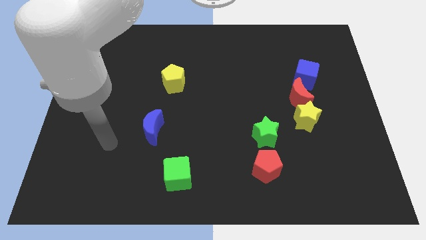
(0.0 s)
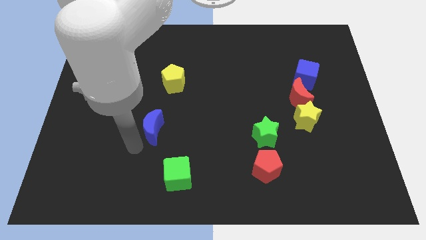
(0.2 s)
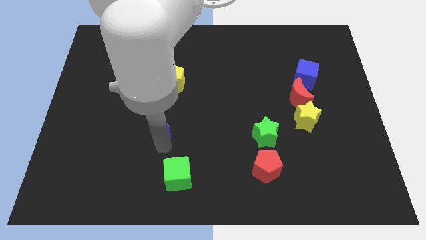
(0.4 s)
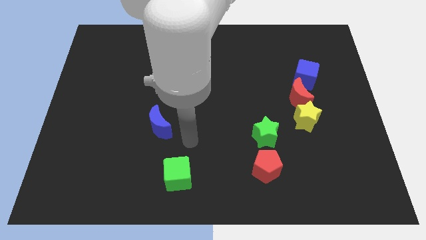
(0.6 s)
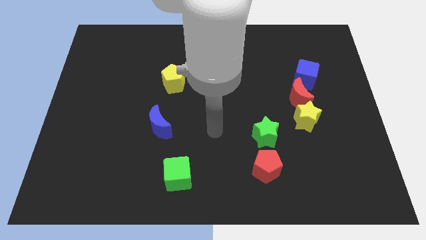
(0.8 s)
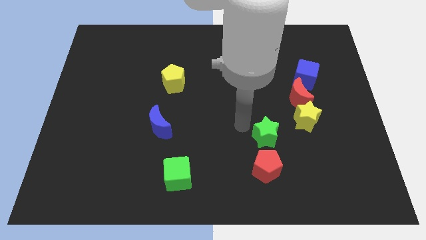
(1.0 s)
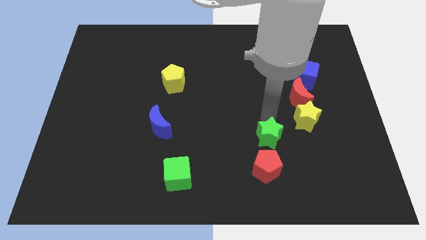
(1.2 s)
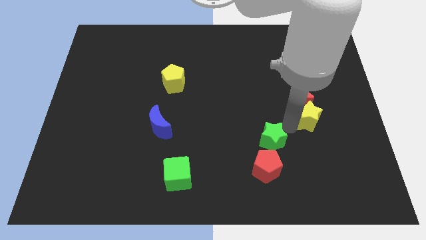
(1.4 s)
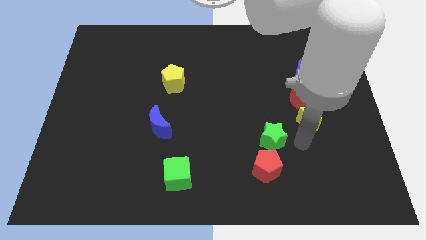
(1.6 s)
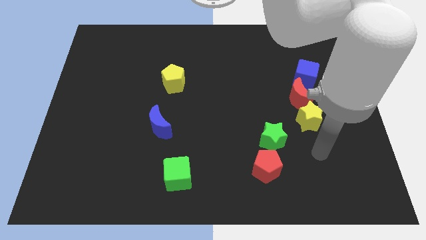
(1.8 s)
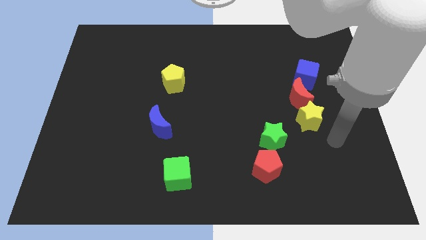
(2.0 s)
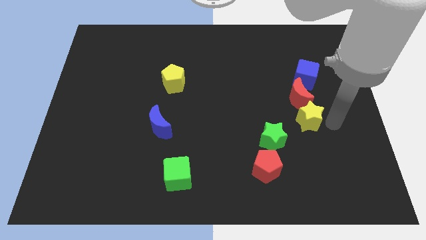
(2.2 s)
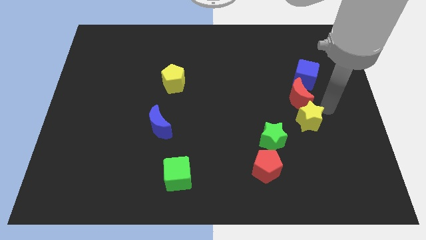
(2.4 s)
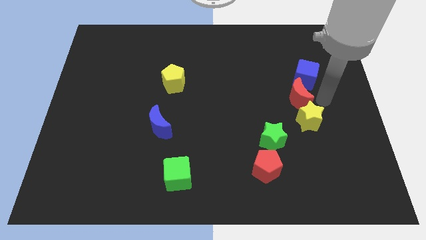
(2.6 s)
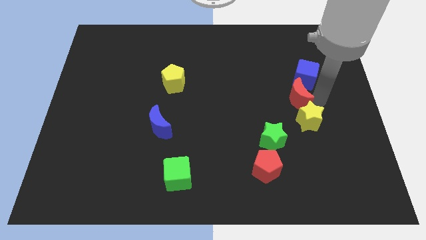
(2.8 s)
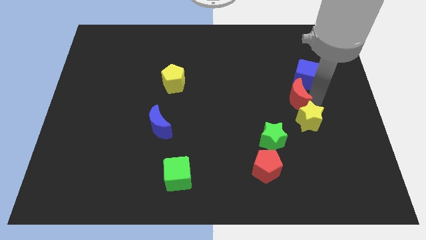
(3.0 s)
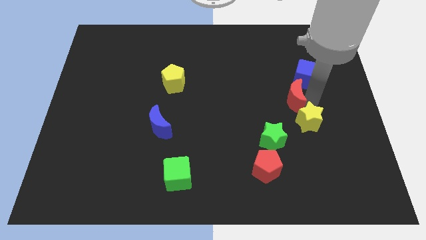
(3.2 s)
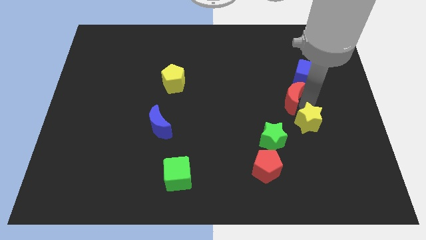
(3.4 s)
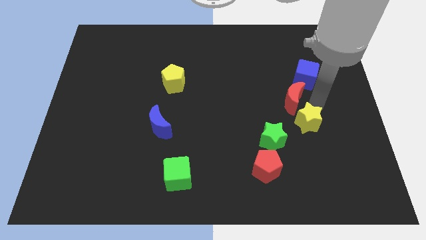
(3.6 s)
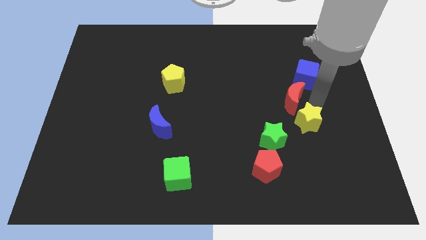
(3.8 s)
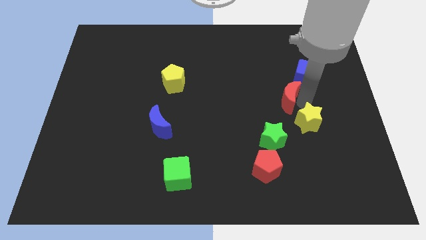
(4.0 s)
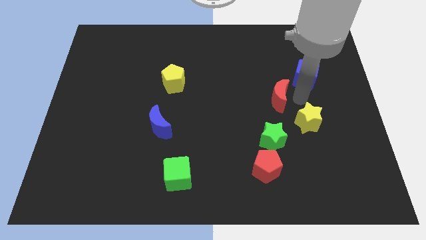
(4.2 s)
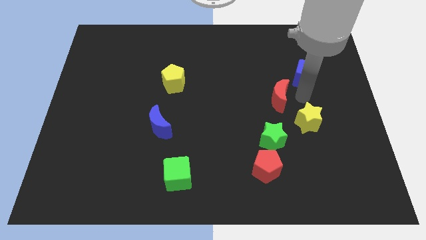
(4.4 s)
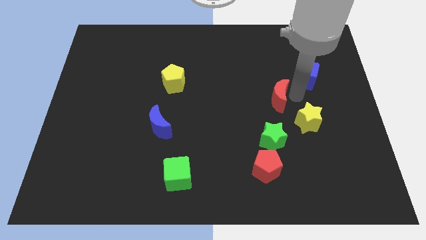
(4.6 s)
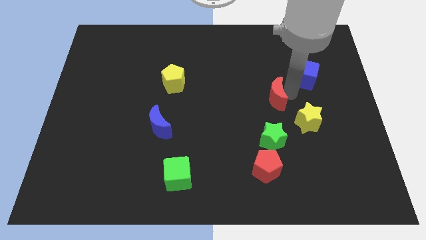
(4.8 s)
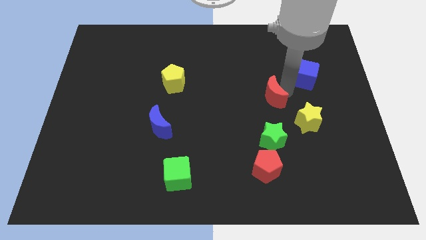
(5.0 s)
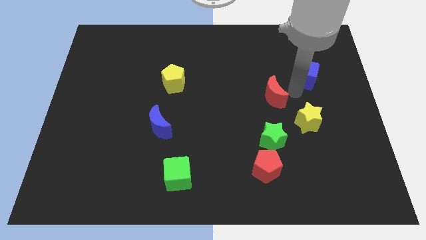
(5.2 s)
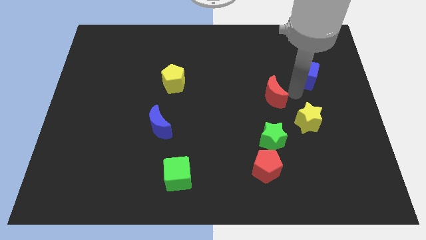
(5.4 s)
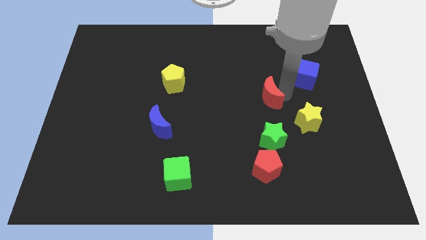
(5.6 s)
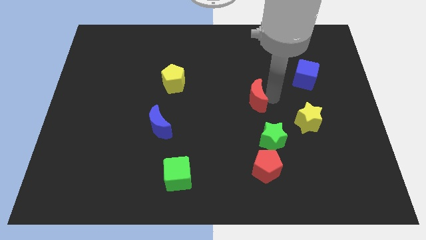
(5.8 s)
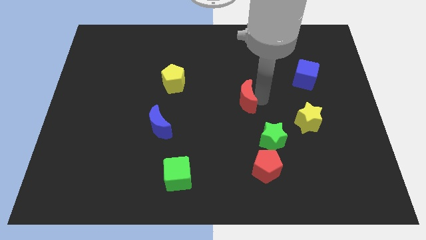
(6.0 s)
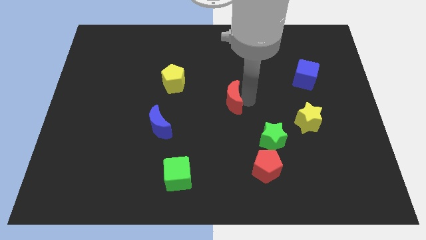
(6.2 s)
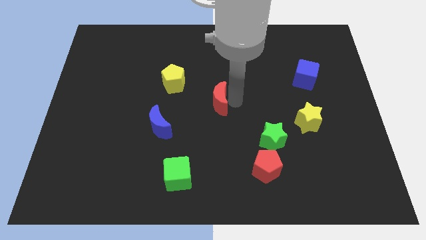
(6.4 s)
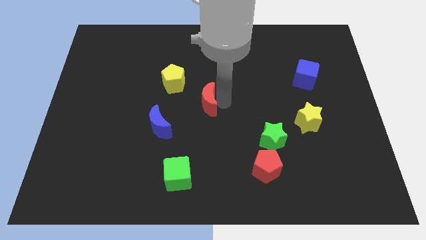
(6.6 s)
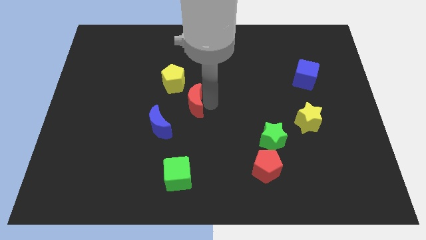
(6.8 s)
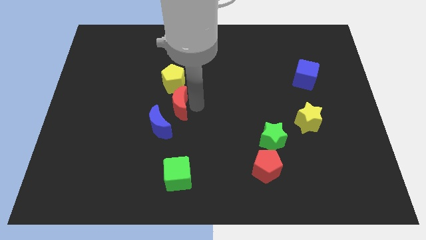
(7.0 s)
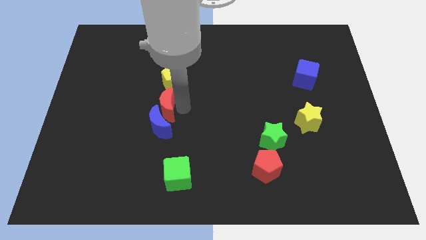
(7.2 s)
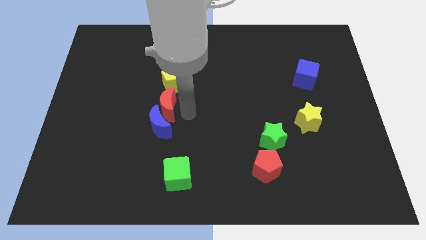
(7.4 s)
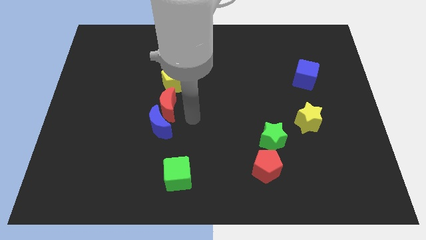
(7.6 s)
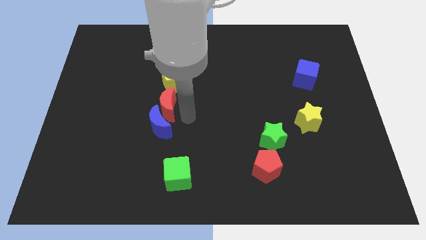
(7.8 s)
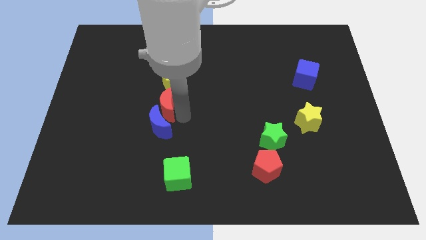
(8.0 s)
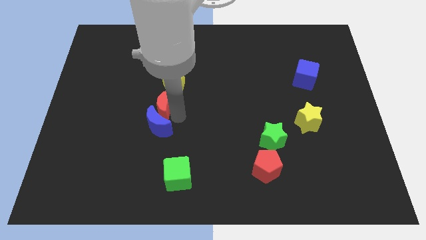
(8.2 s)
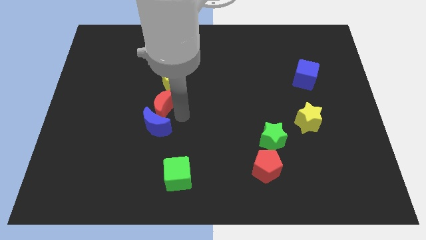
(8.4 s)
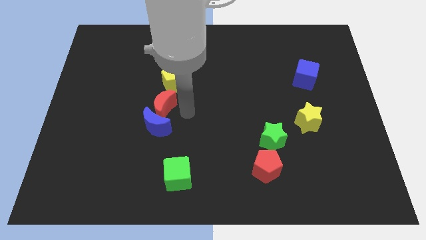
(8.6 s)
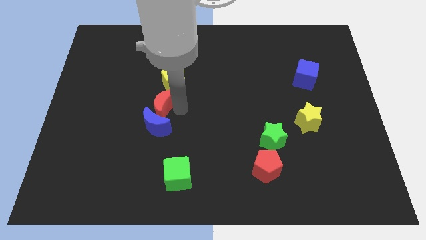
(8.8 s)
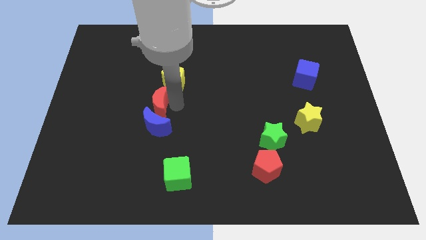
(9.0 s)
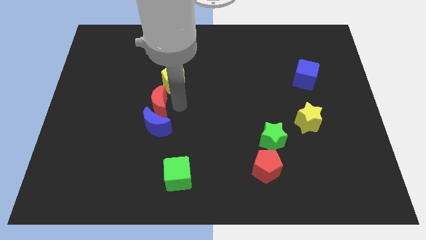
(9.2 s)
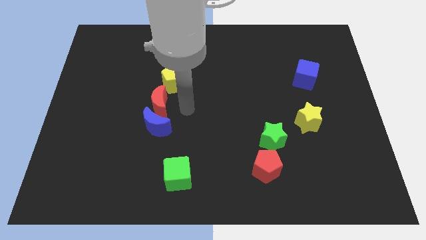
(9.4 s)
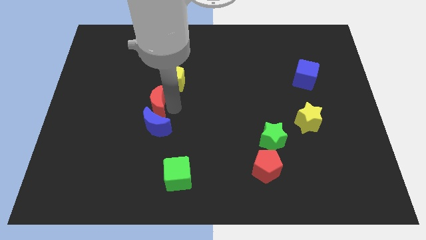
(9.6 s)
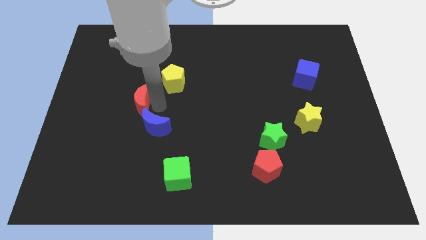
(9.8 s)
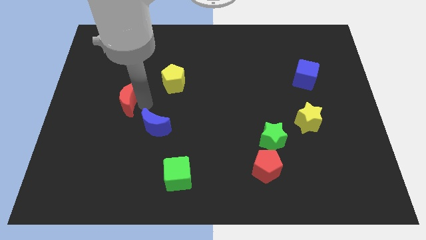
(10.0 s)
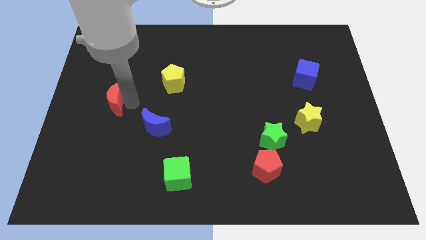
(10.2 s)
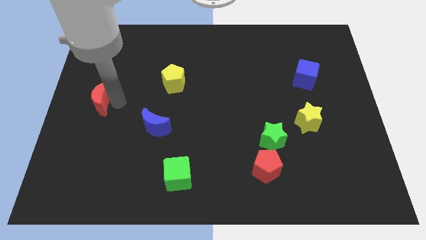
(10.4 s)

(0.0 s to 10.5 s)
slide the red moon to the center left

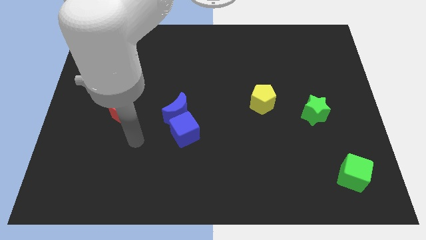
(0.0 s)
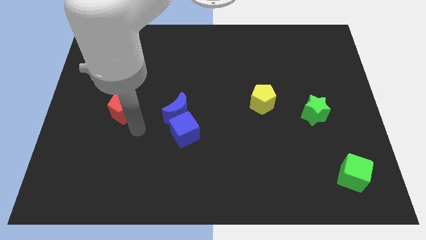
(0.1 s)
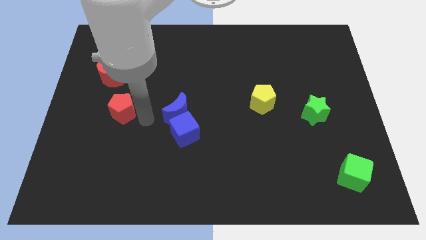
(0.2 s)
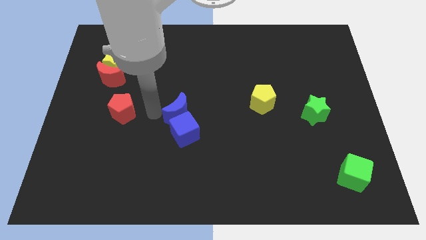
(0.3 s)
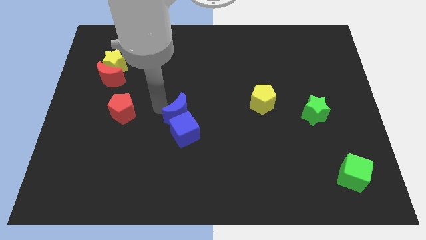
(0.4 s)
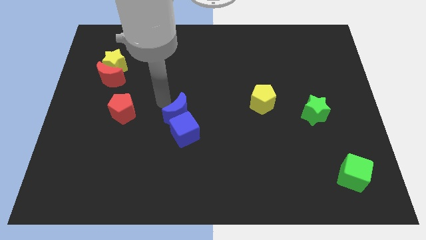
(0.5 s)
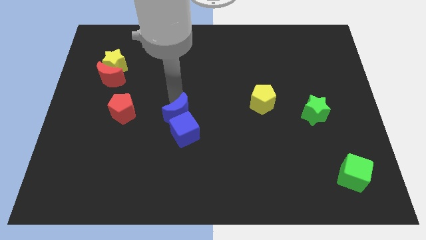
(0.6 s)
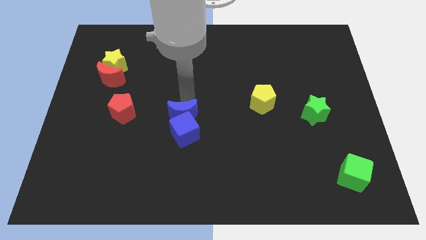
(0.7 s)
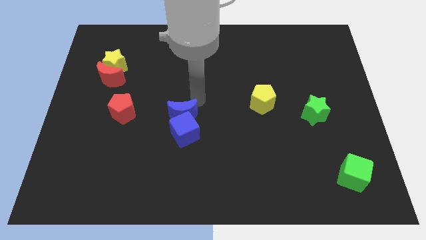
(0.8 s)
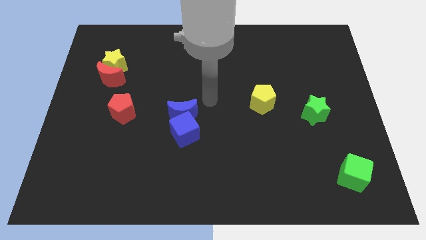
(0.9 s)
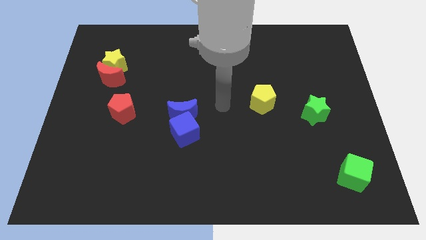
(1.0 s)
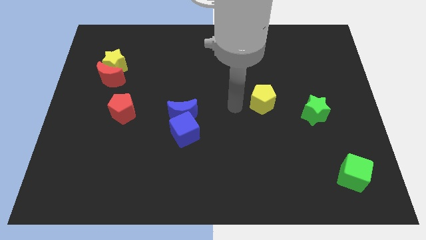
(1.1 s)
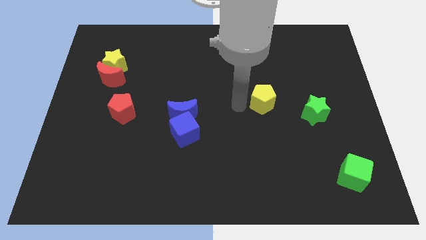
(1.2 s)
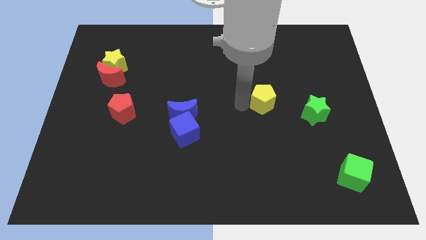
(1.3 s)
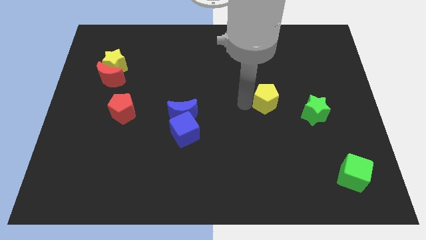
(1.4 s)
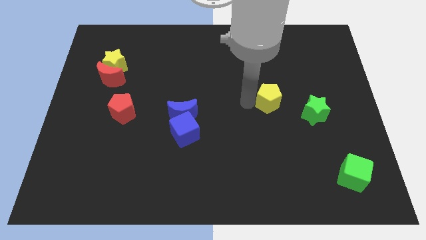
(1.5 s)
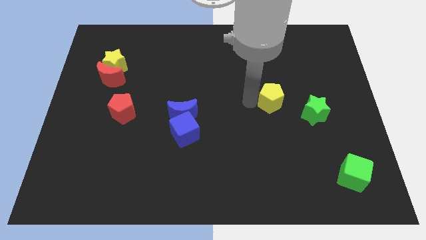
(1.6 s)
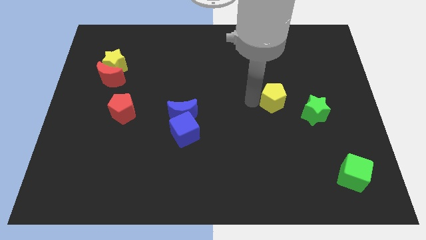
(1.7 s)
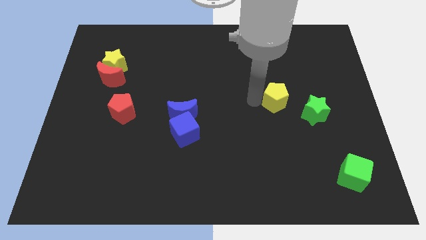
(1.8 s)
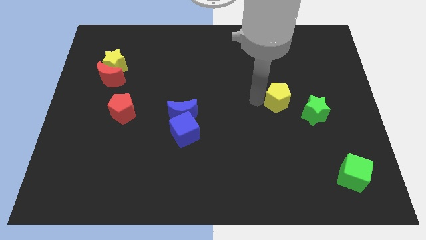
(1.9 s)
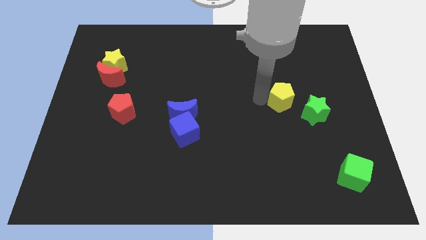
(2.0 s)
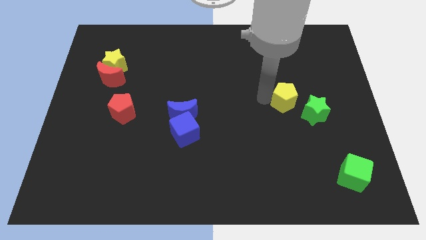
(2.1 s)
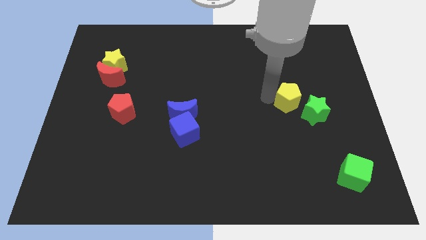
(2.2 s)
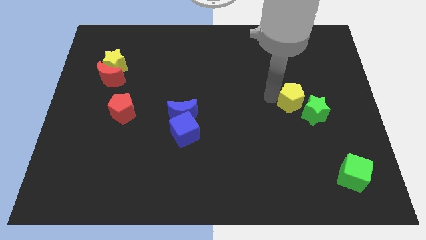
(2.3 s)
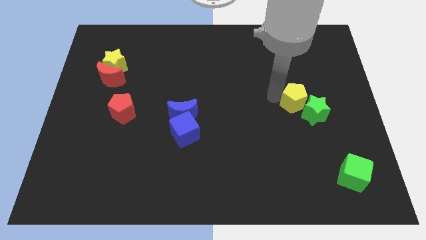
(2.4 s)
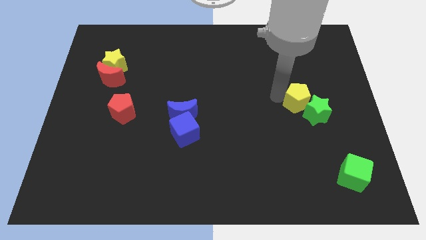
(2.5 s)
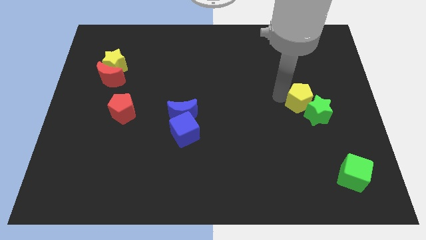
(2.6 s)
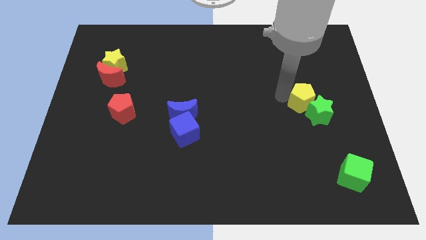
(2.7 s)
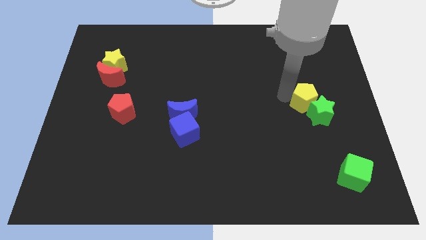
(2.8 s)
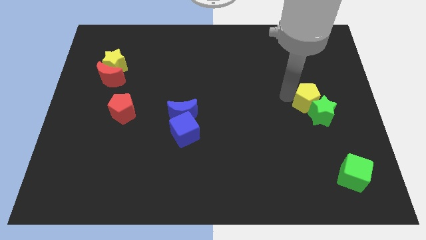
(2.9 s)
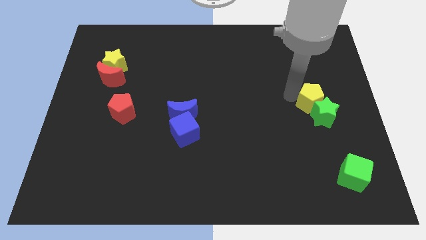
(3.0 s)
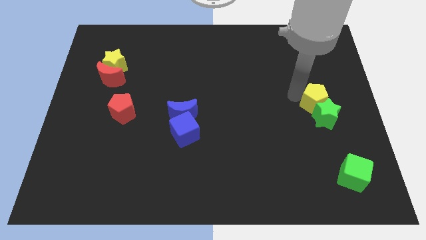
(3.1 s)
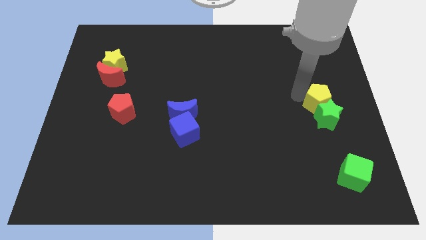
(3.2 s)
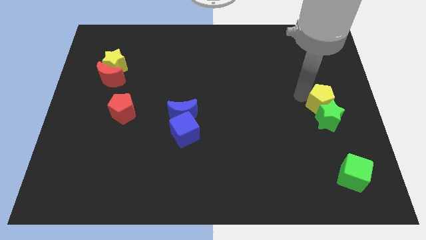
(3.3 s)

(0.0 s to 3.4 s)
slide the yellow pentagon to the right side of the board
